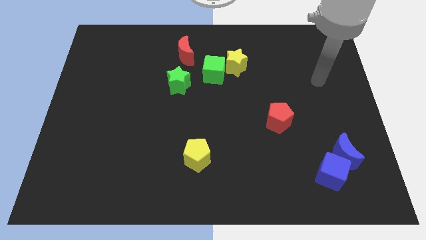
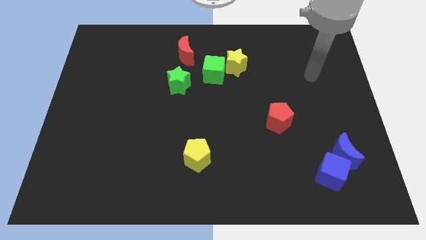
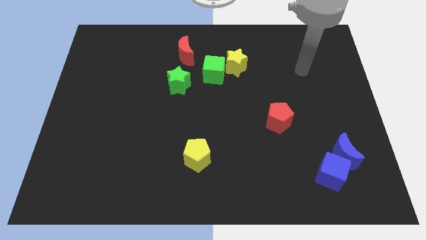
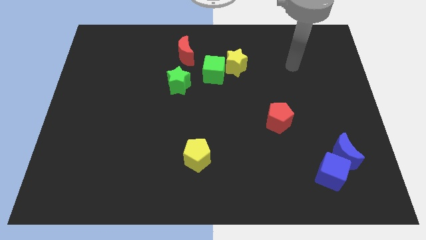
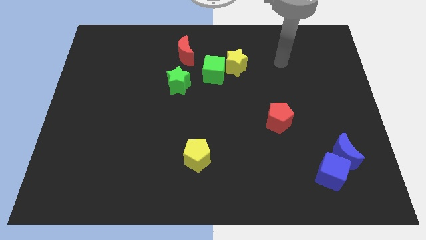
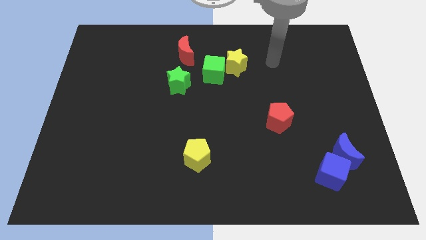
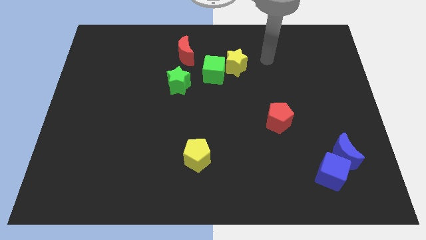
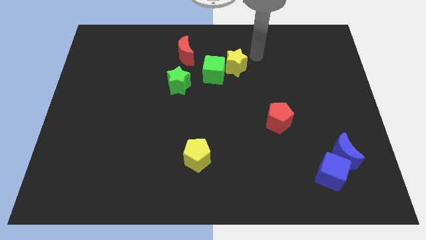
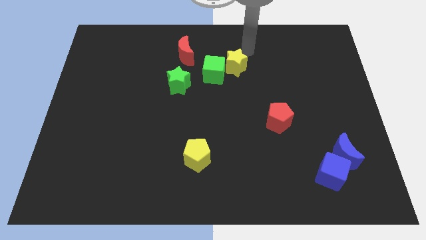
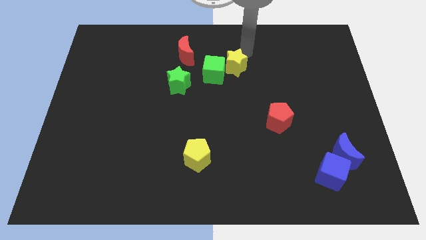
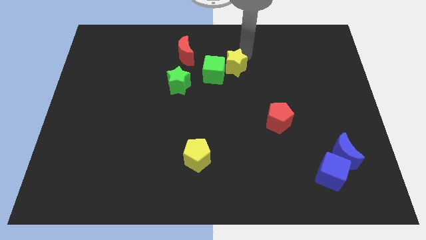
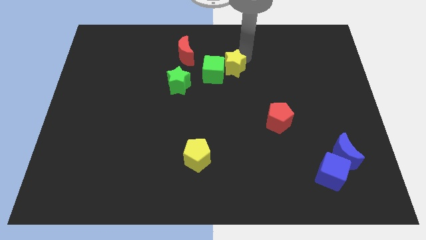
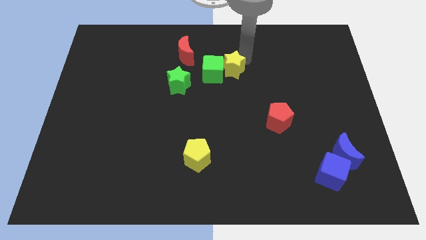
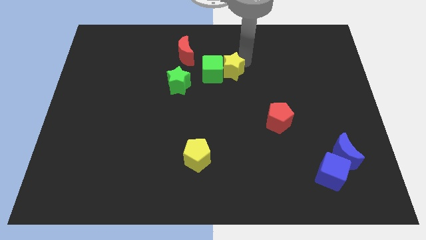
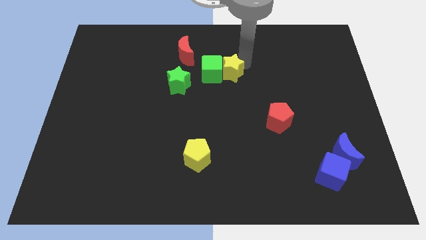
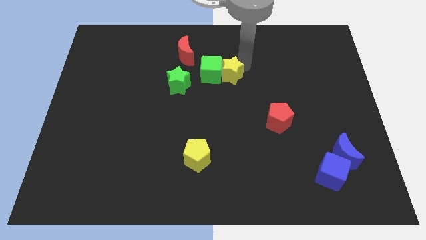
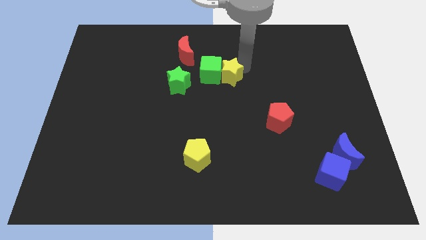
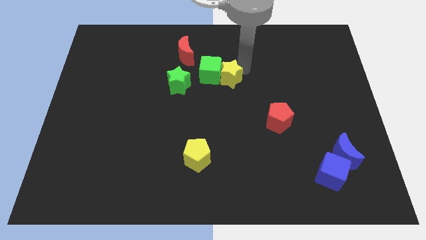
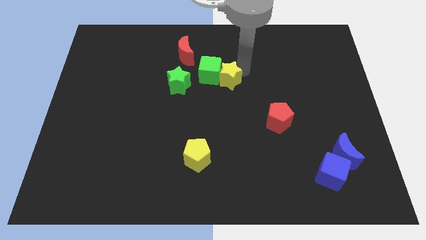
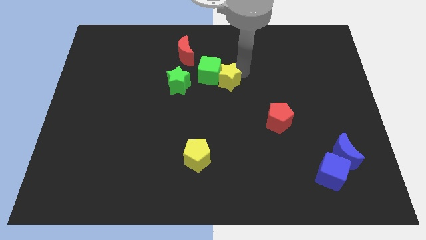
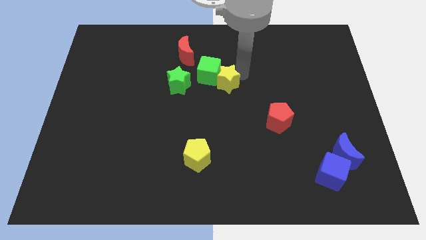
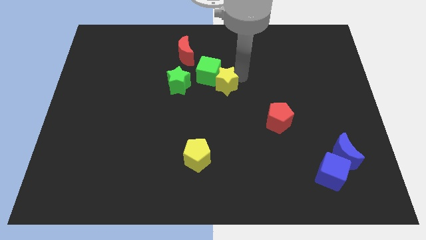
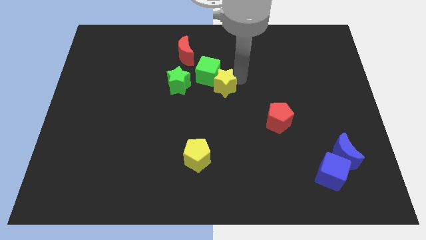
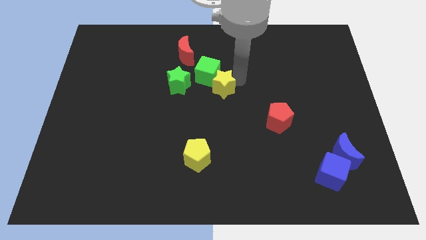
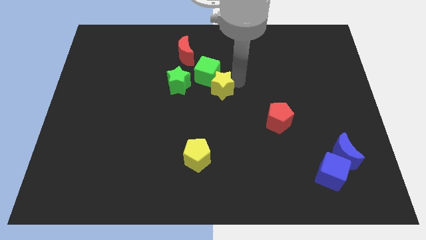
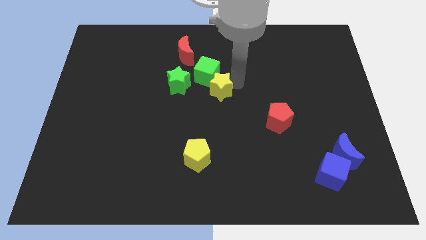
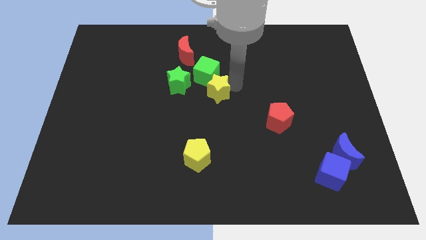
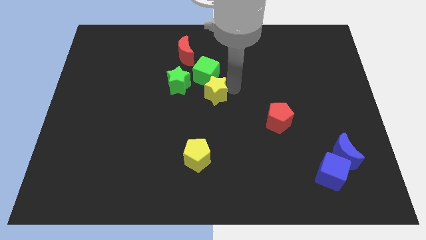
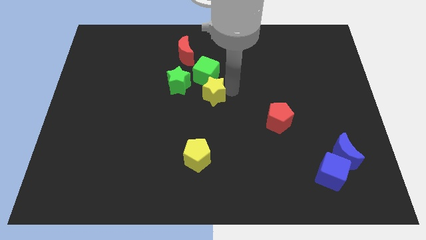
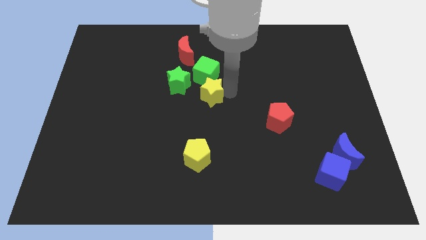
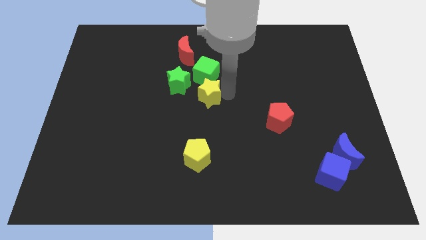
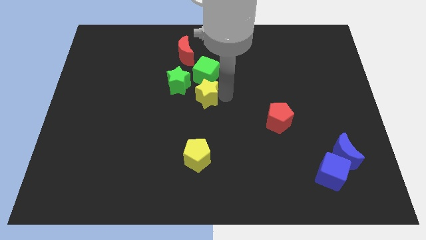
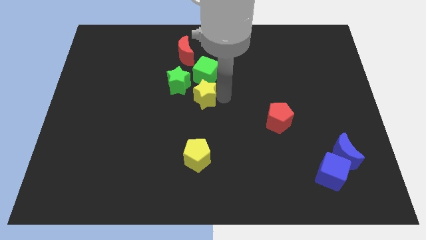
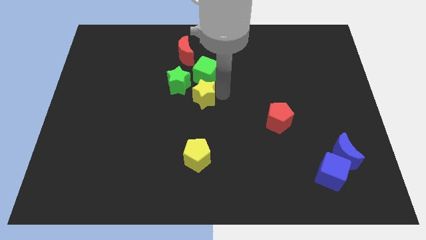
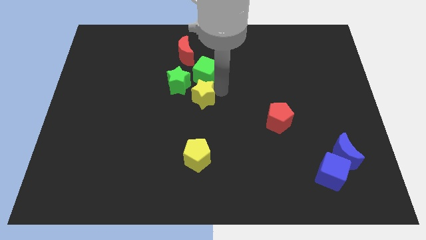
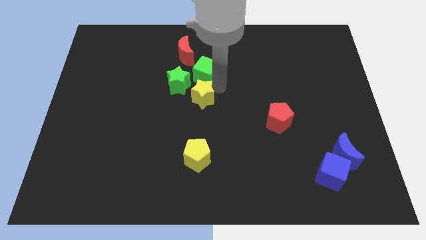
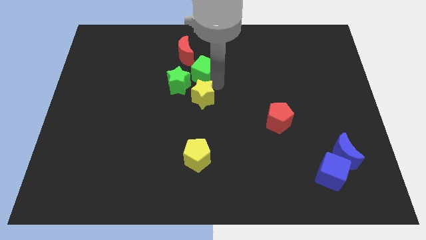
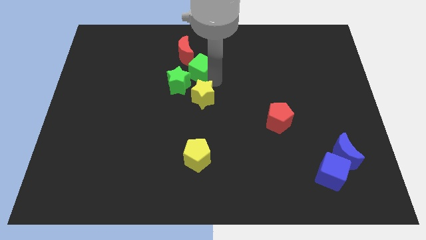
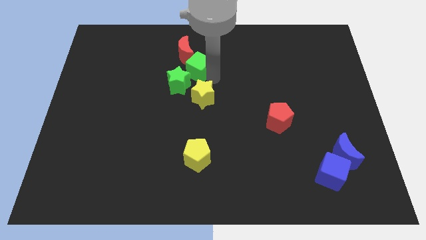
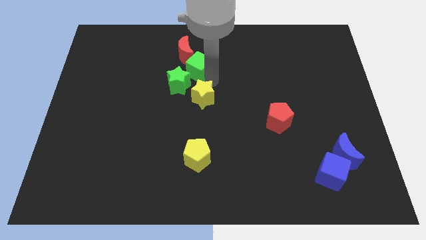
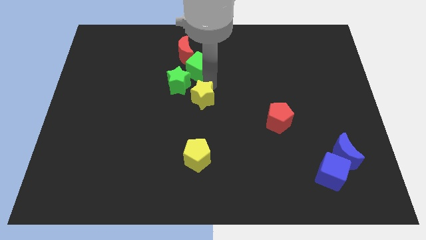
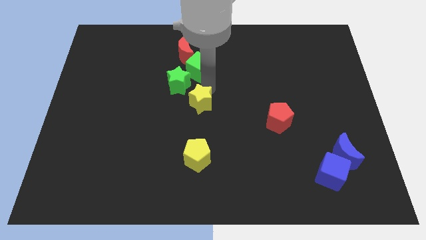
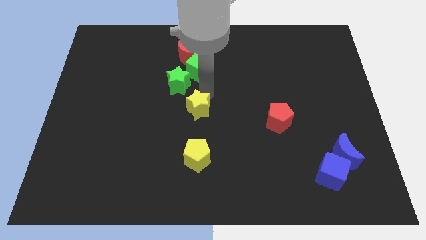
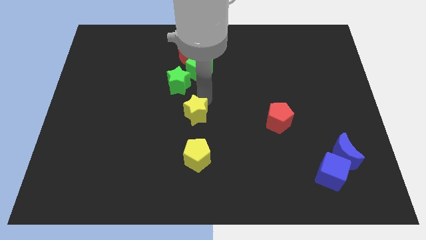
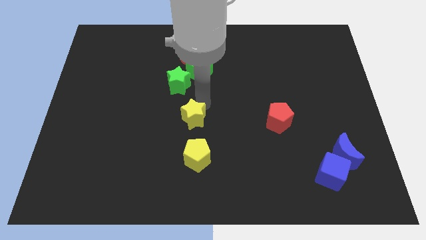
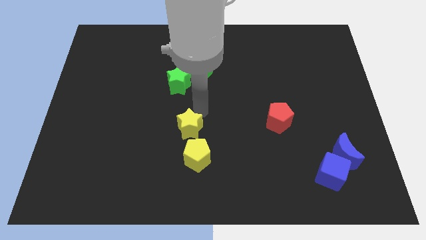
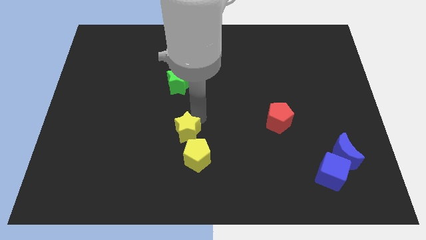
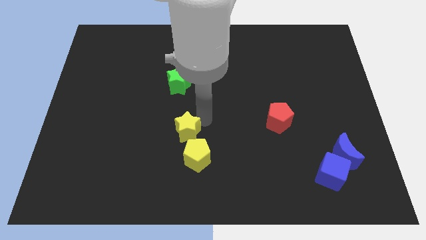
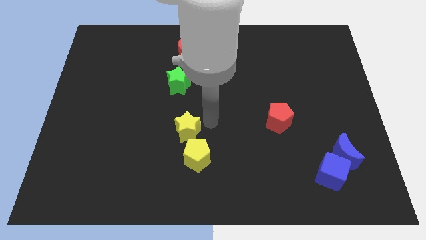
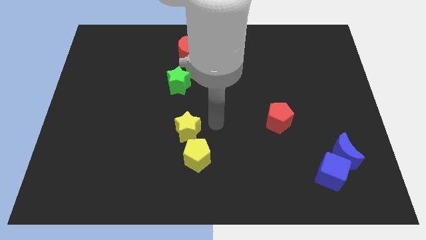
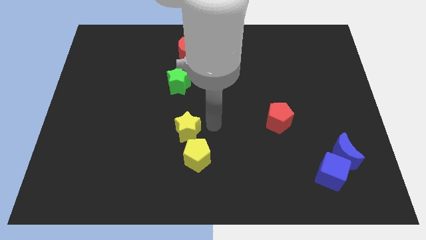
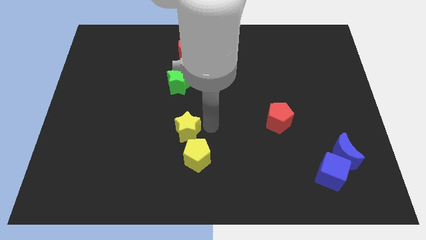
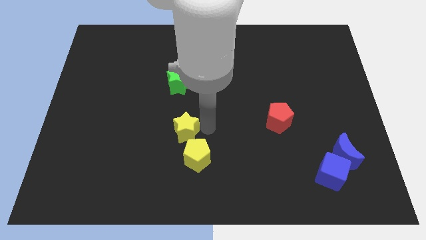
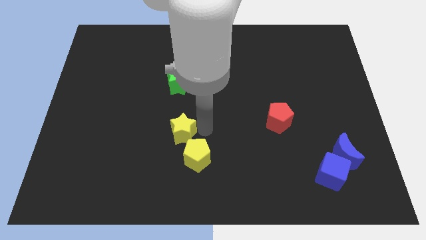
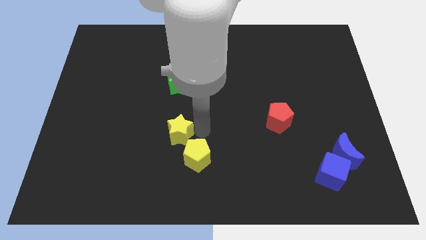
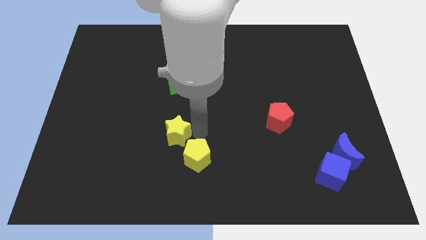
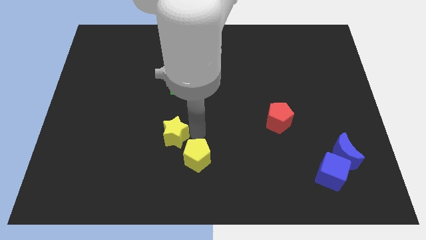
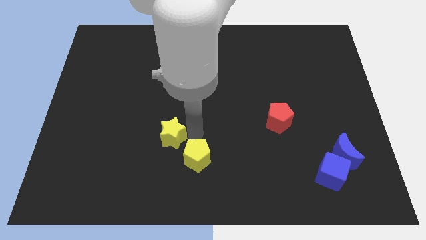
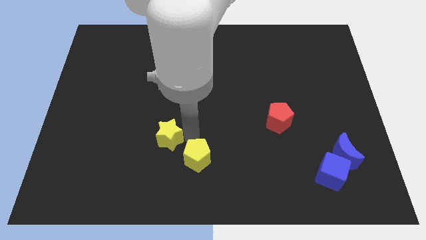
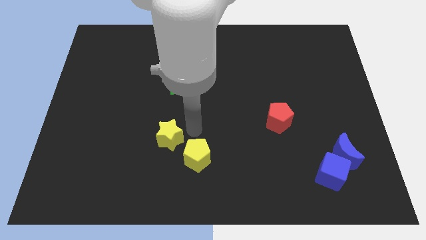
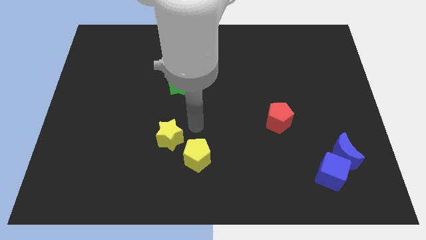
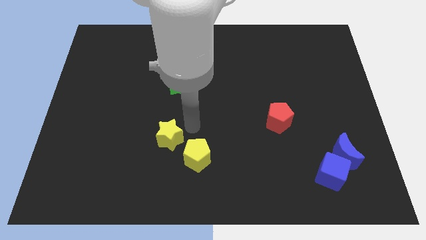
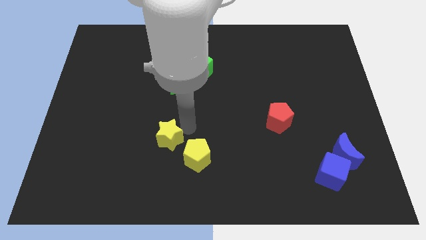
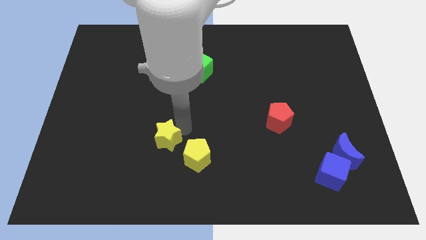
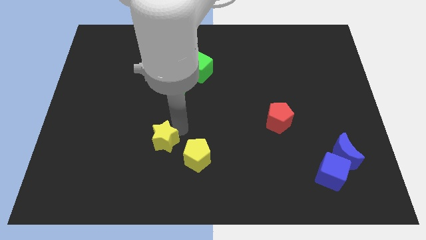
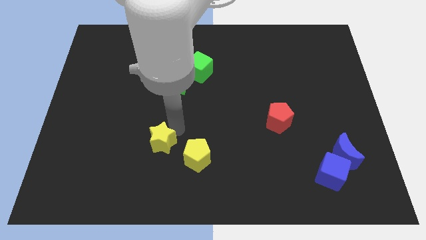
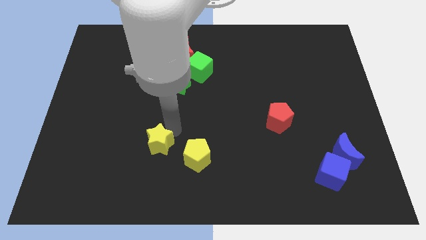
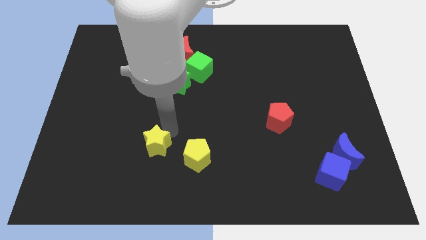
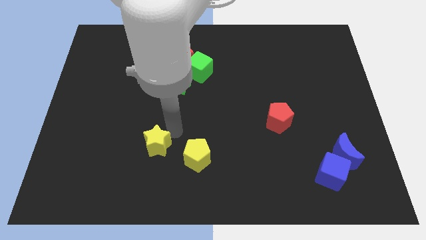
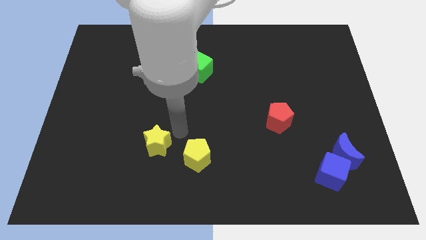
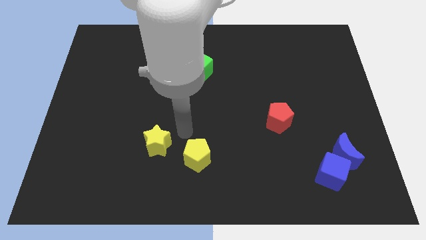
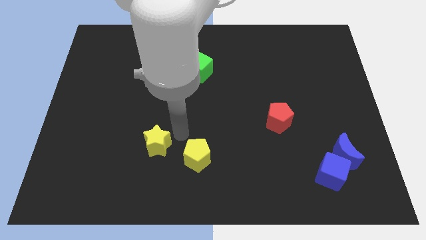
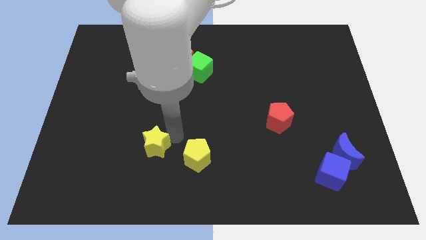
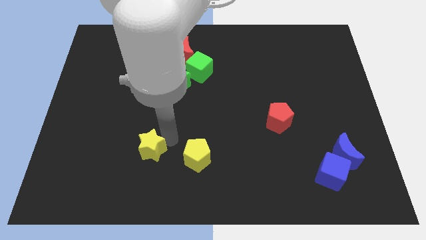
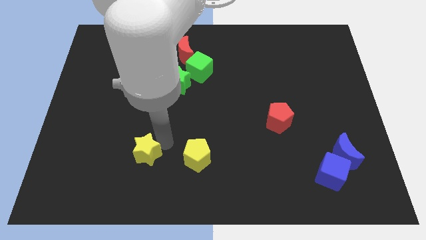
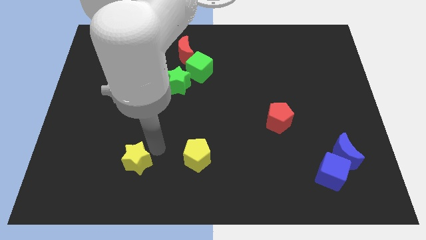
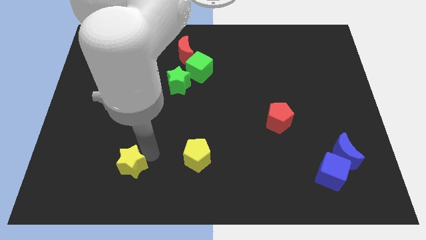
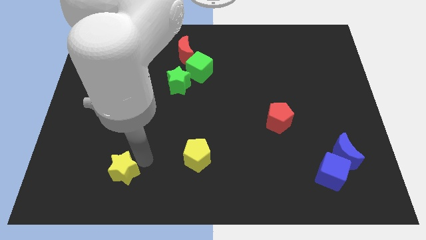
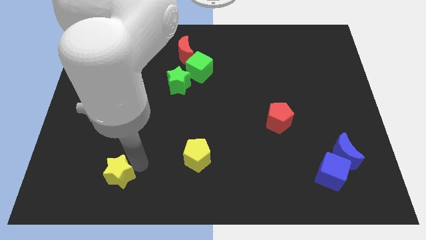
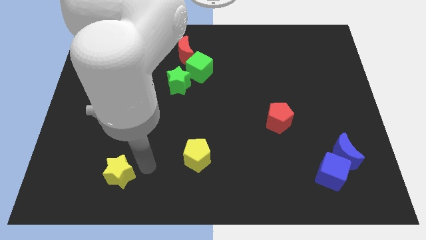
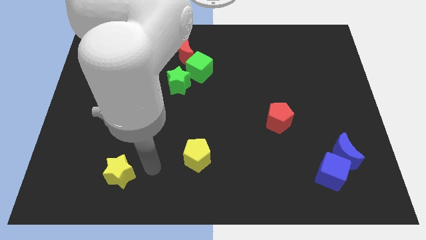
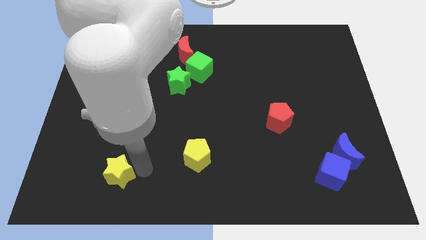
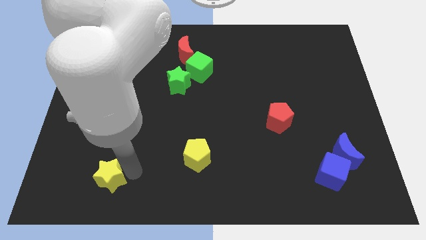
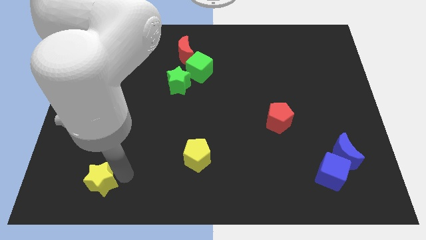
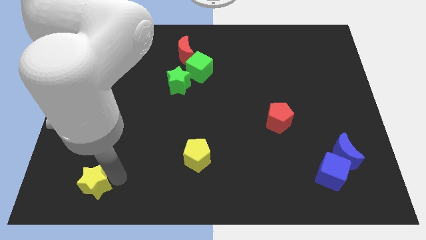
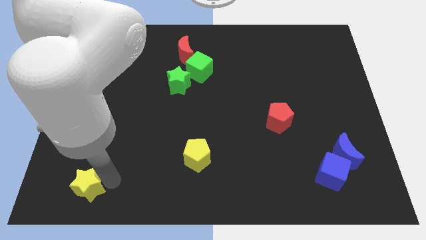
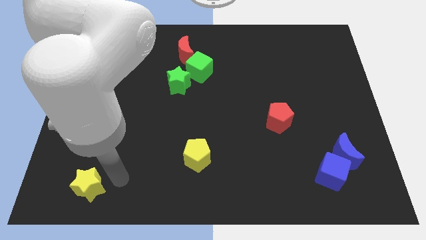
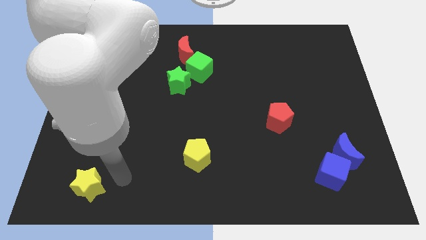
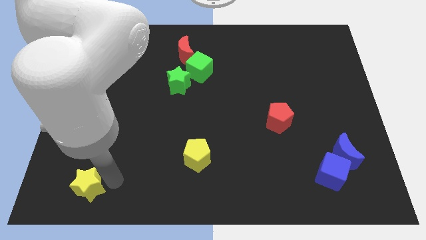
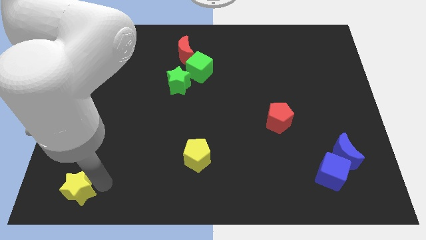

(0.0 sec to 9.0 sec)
push the yellow star to the lower left corner
